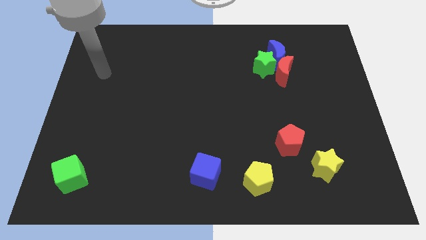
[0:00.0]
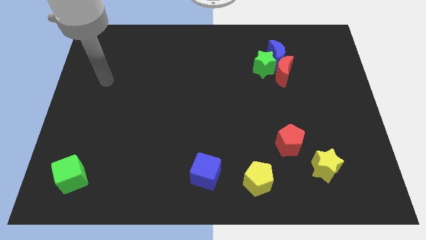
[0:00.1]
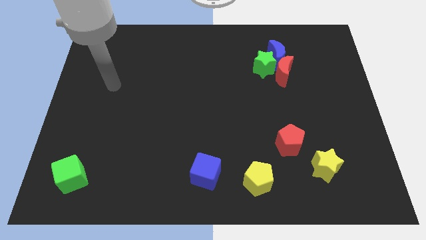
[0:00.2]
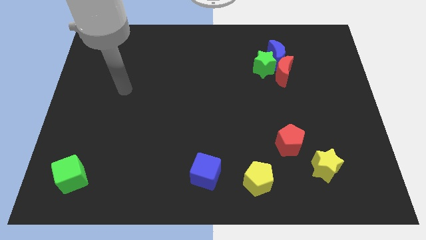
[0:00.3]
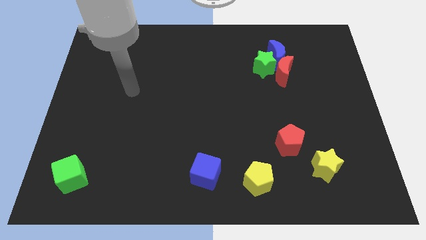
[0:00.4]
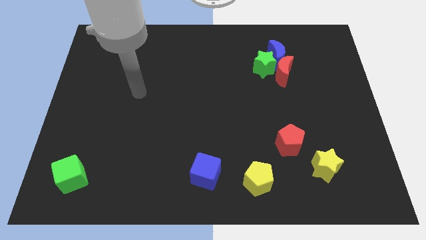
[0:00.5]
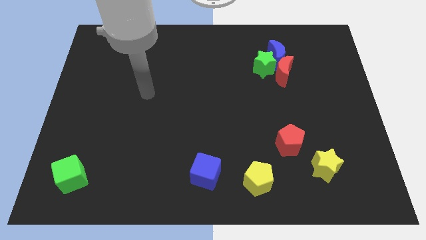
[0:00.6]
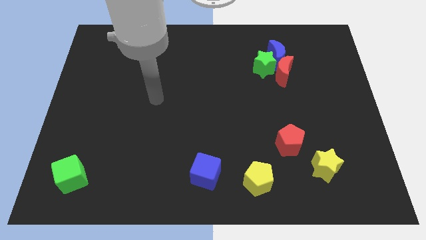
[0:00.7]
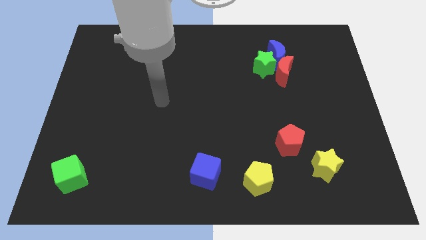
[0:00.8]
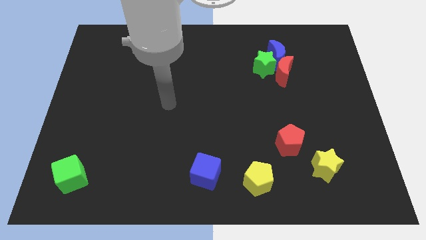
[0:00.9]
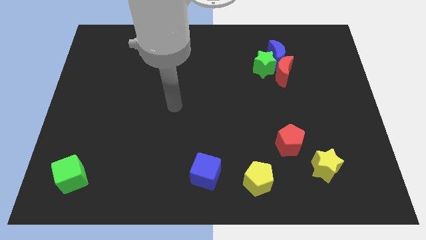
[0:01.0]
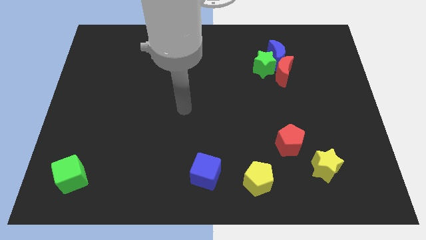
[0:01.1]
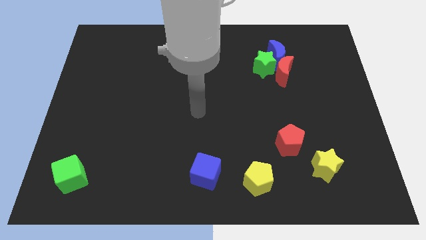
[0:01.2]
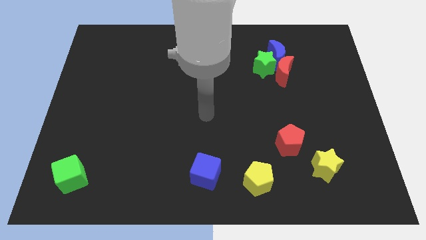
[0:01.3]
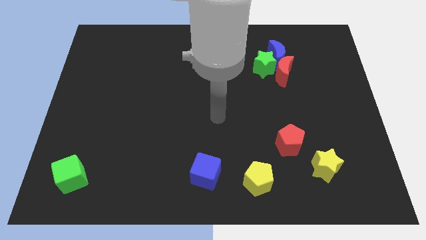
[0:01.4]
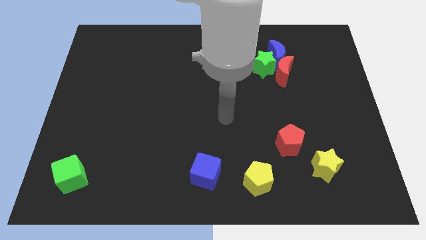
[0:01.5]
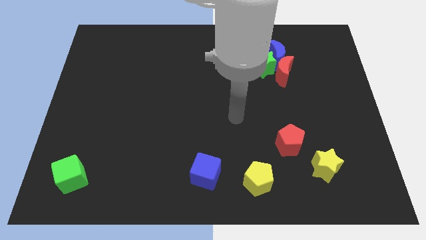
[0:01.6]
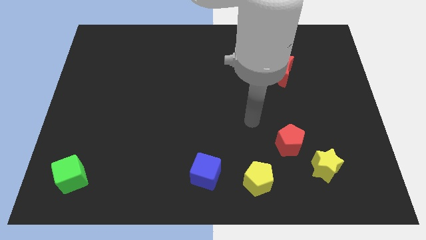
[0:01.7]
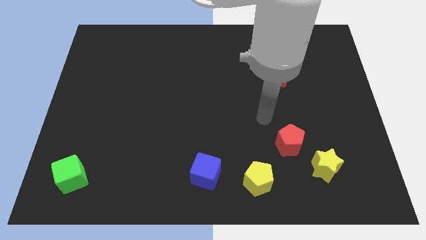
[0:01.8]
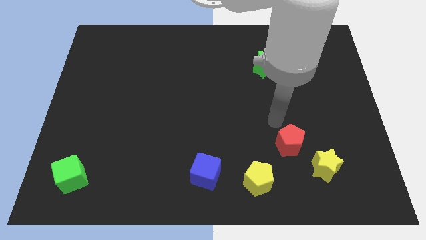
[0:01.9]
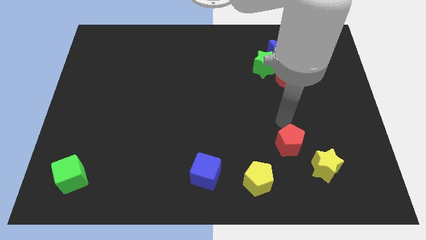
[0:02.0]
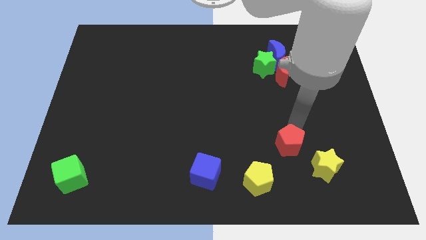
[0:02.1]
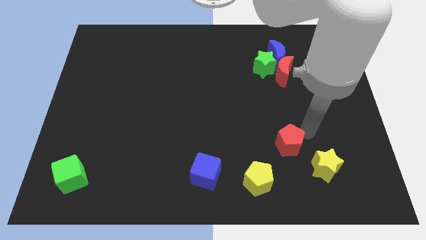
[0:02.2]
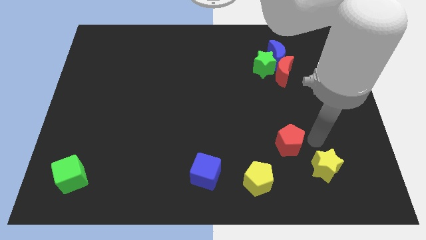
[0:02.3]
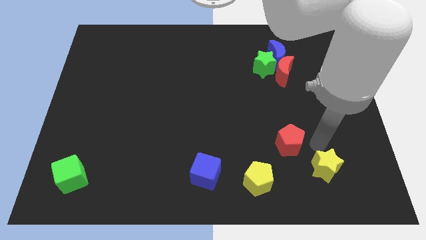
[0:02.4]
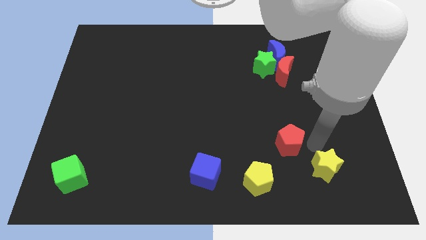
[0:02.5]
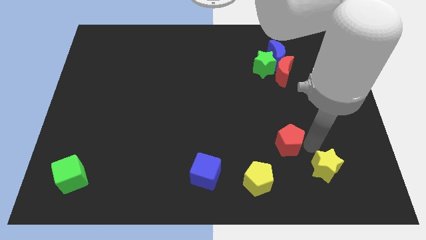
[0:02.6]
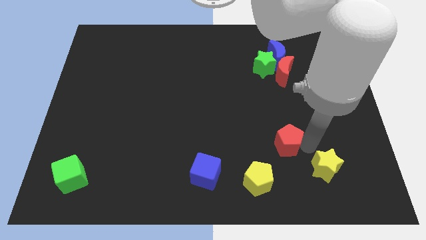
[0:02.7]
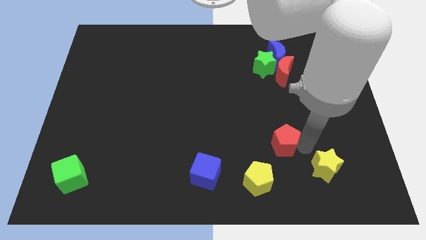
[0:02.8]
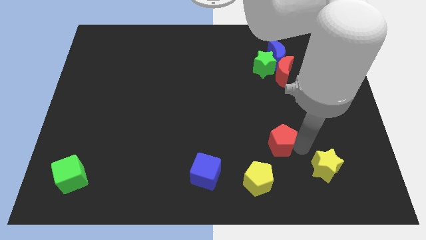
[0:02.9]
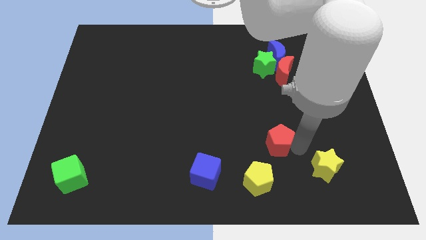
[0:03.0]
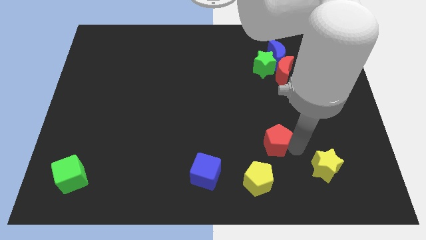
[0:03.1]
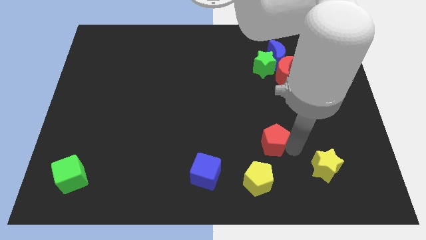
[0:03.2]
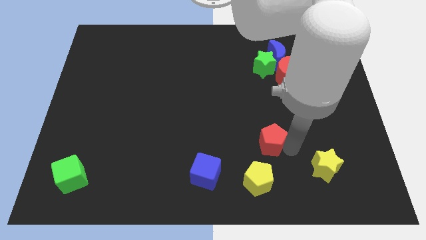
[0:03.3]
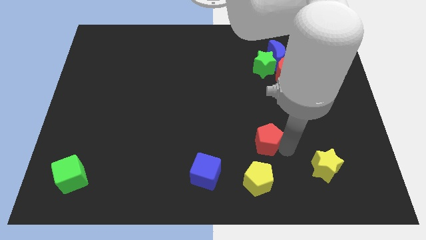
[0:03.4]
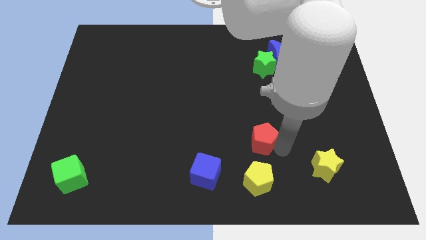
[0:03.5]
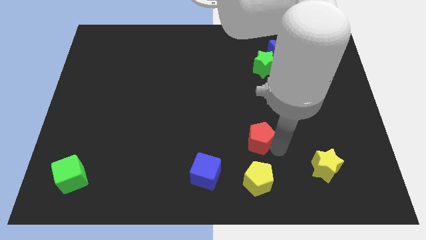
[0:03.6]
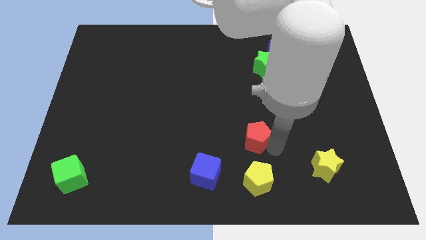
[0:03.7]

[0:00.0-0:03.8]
slide the red pentagon a bit to the left

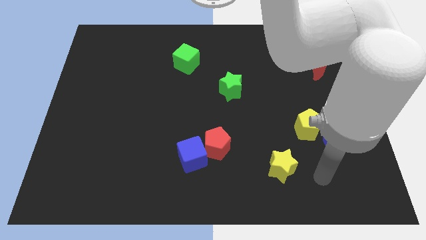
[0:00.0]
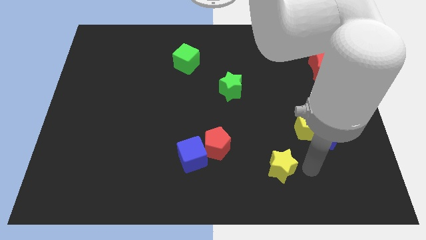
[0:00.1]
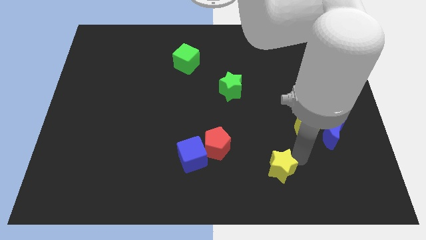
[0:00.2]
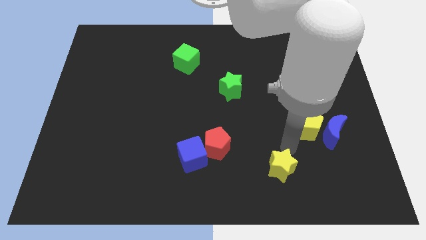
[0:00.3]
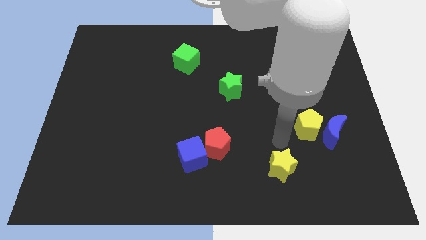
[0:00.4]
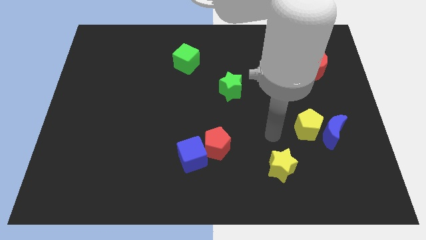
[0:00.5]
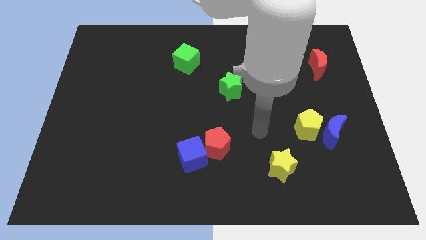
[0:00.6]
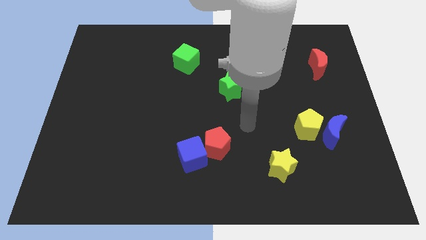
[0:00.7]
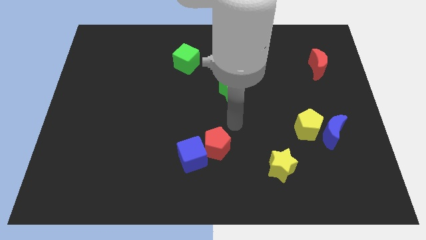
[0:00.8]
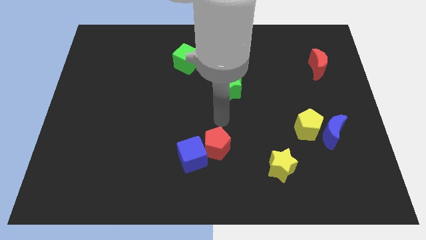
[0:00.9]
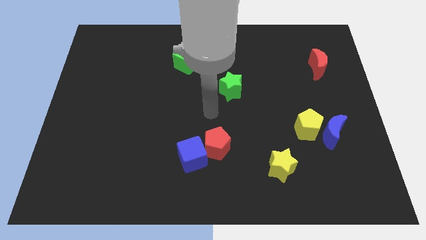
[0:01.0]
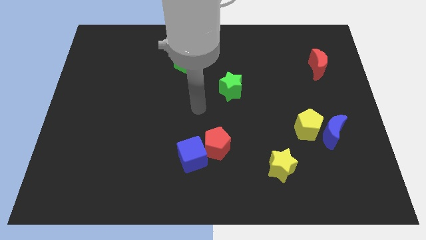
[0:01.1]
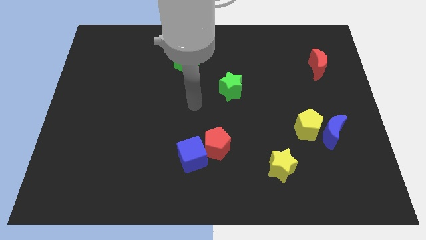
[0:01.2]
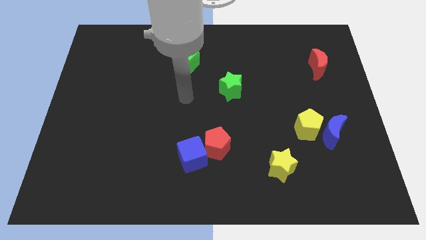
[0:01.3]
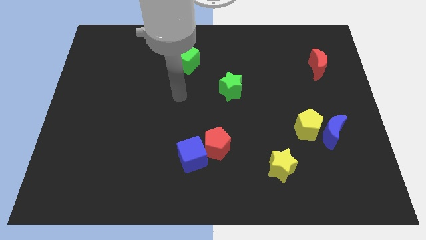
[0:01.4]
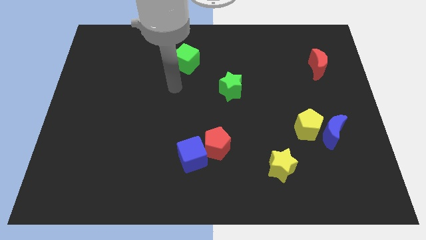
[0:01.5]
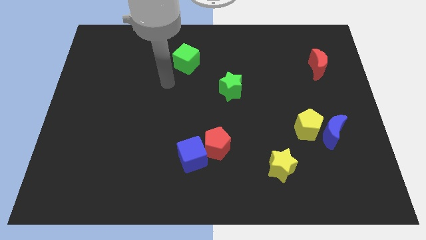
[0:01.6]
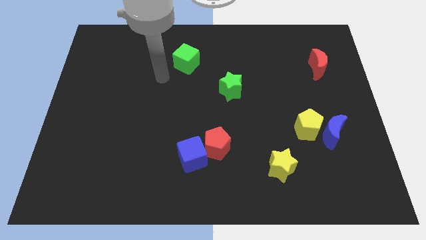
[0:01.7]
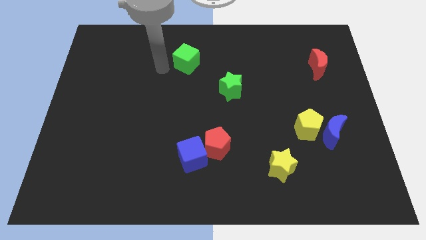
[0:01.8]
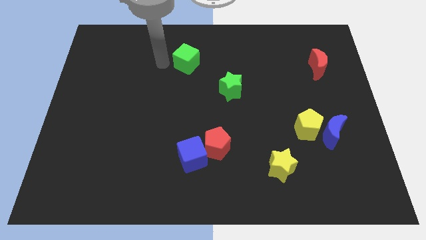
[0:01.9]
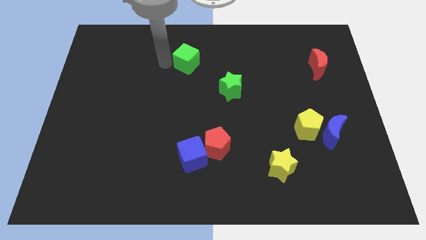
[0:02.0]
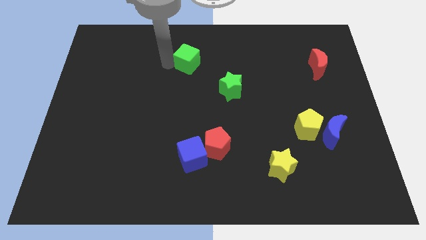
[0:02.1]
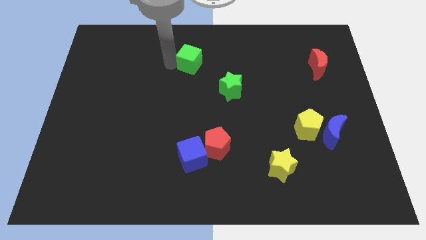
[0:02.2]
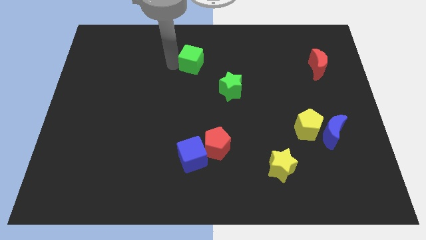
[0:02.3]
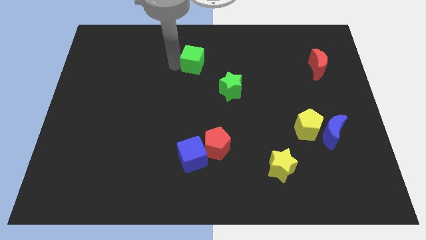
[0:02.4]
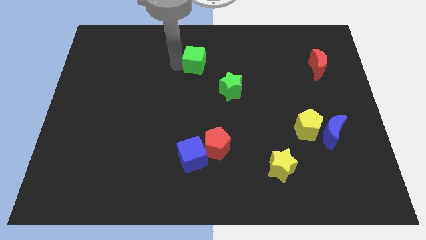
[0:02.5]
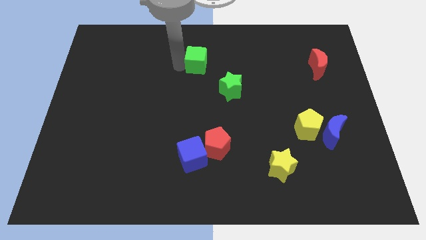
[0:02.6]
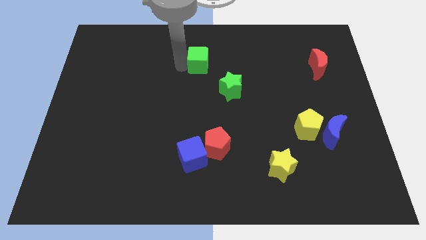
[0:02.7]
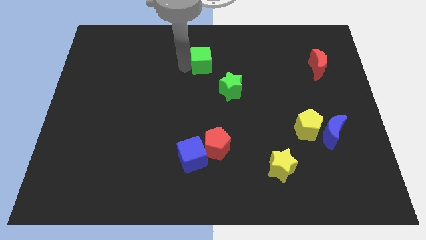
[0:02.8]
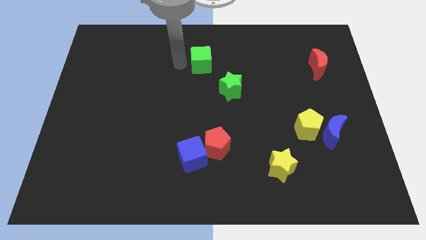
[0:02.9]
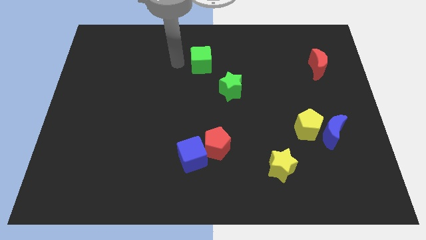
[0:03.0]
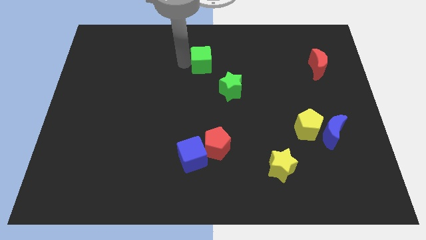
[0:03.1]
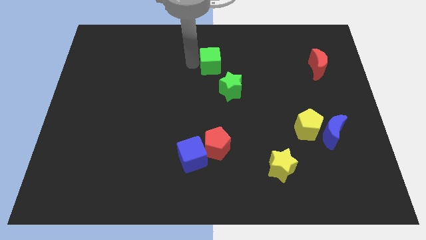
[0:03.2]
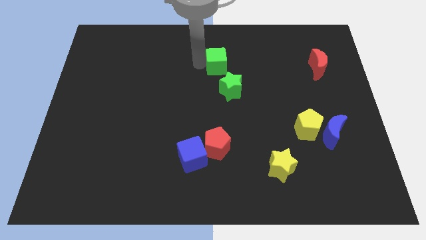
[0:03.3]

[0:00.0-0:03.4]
move the green cube somewhat right

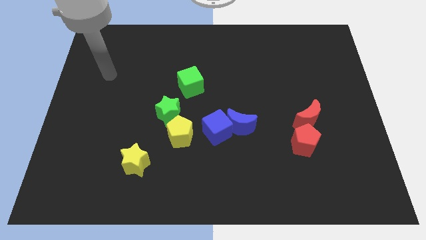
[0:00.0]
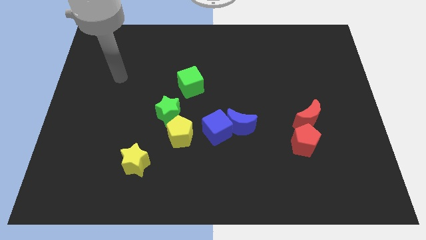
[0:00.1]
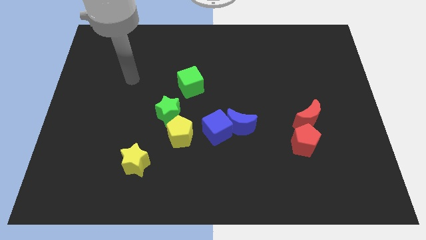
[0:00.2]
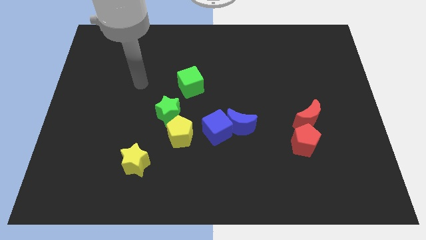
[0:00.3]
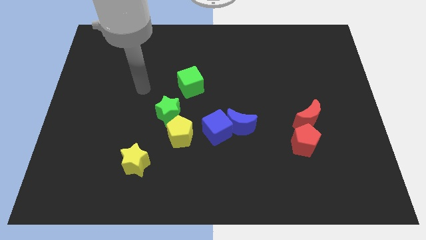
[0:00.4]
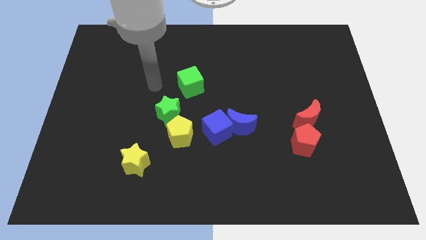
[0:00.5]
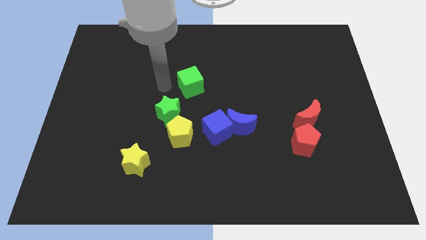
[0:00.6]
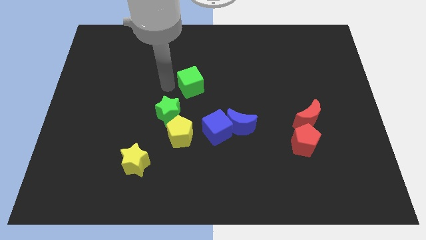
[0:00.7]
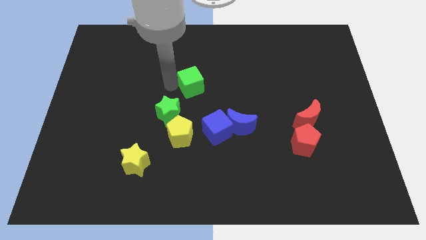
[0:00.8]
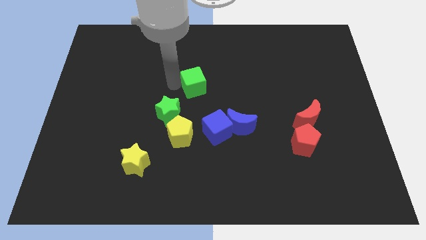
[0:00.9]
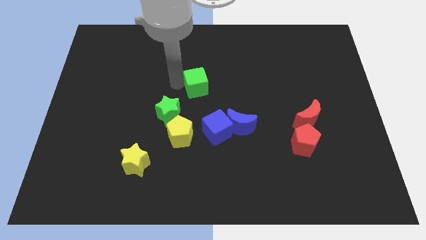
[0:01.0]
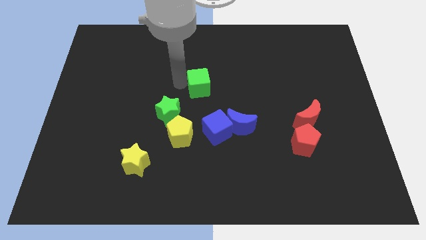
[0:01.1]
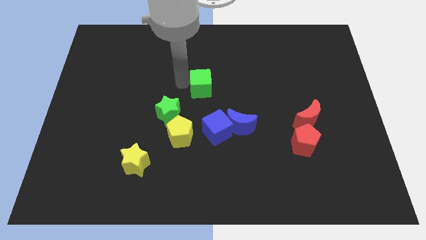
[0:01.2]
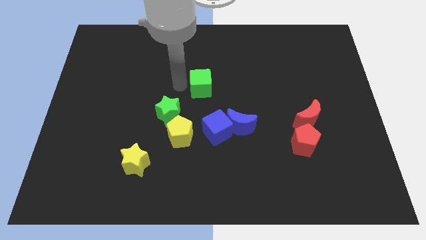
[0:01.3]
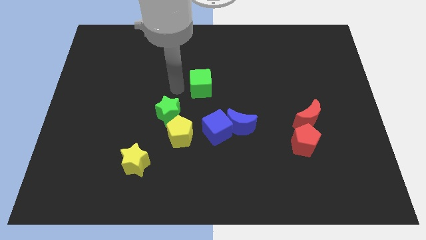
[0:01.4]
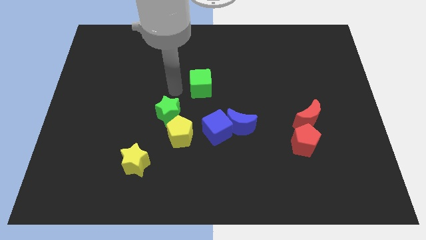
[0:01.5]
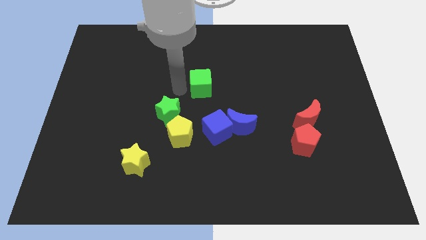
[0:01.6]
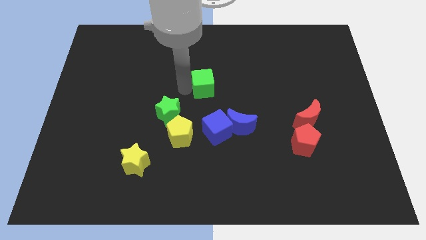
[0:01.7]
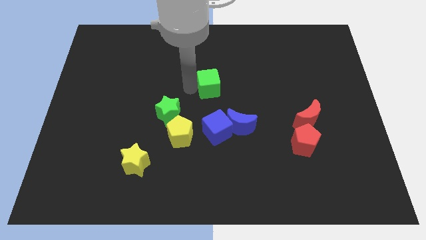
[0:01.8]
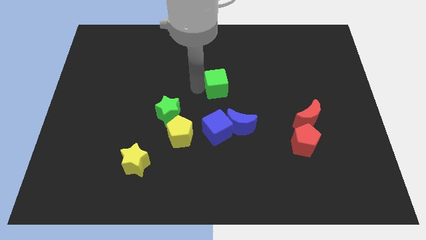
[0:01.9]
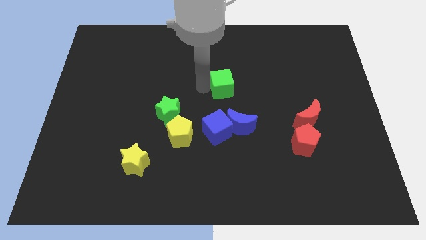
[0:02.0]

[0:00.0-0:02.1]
slightly push the green cube to the right
